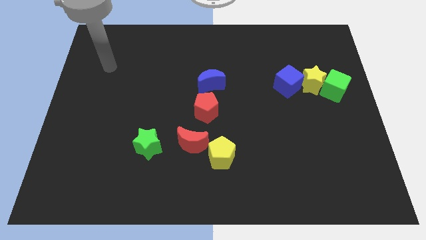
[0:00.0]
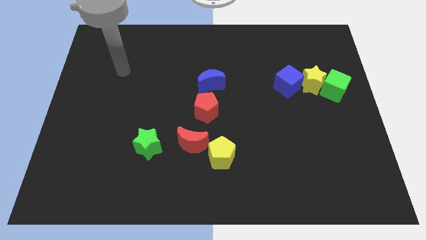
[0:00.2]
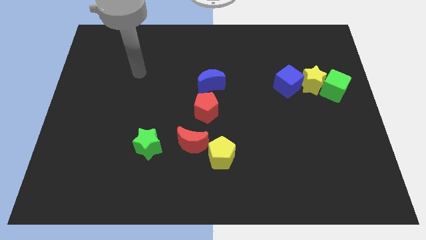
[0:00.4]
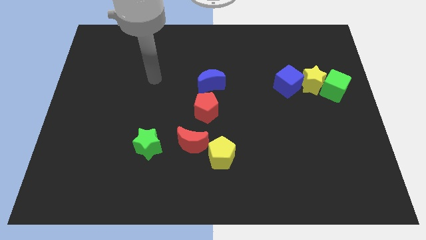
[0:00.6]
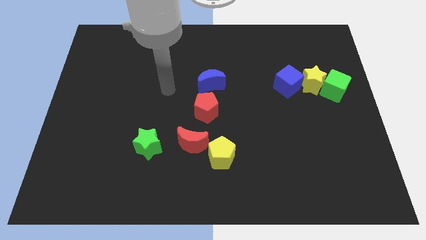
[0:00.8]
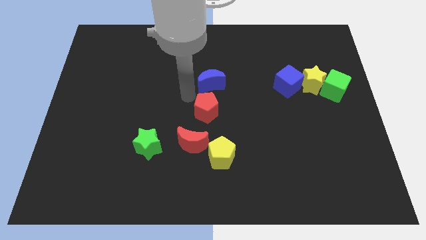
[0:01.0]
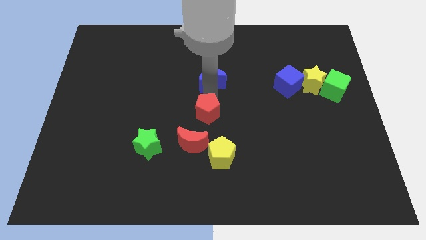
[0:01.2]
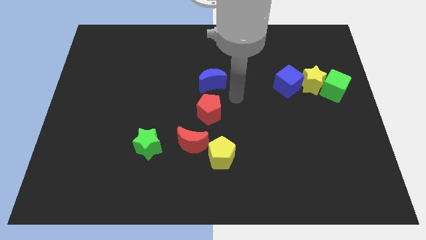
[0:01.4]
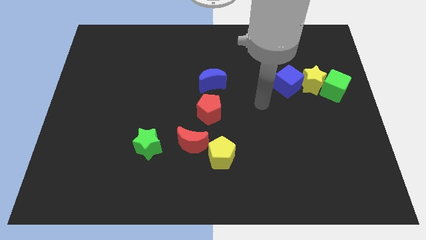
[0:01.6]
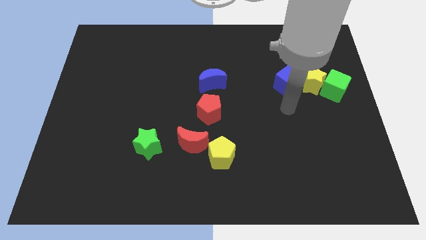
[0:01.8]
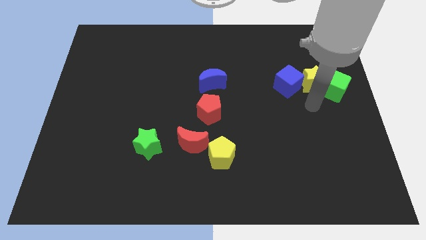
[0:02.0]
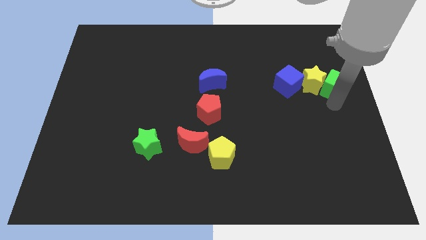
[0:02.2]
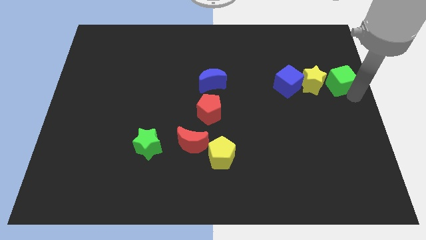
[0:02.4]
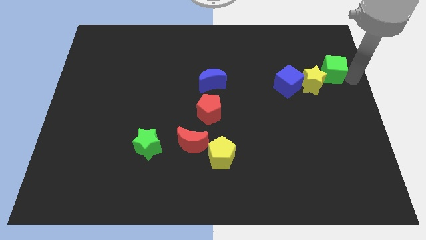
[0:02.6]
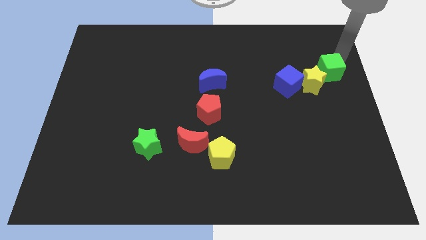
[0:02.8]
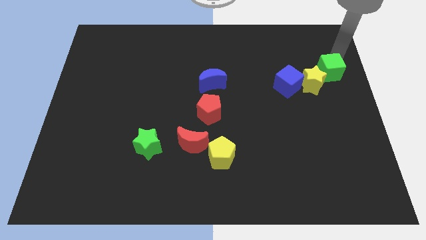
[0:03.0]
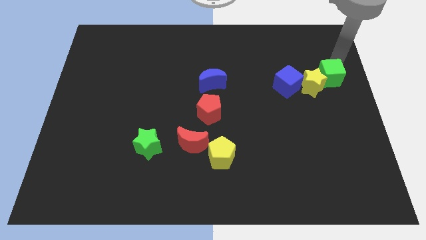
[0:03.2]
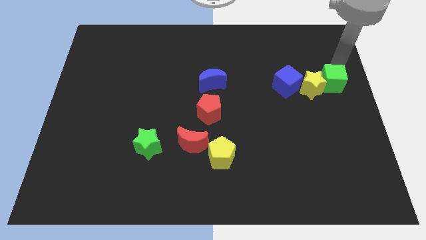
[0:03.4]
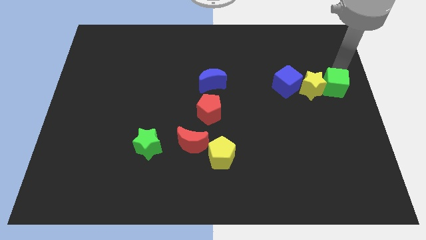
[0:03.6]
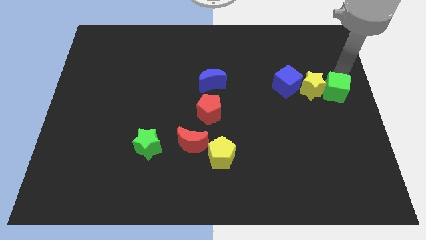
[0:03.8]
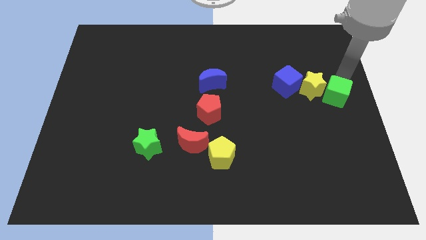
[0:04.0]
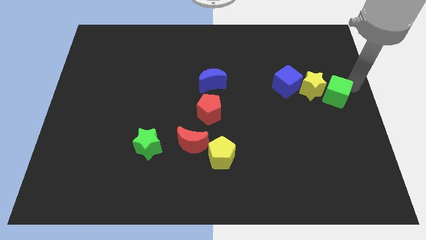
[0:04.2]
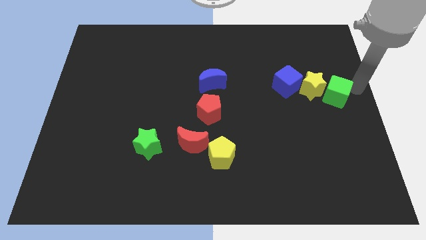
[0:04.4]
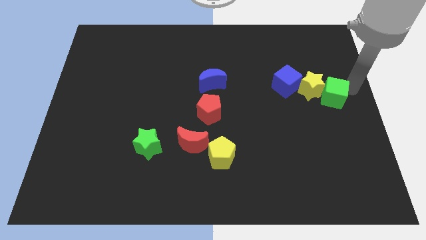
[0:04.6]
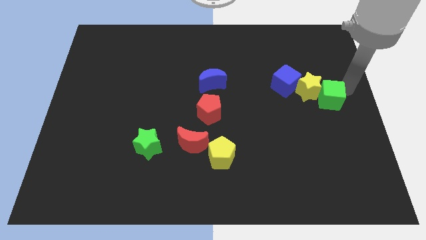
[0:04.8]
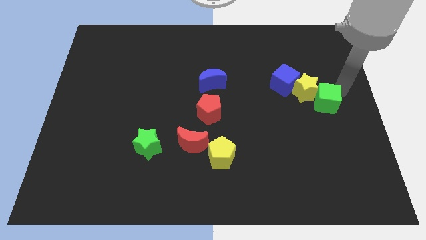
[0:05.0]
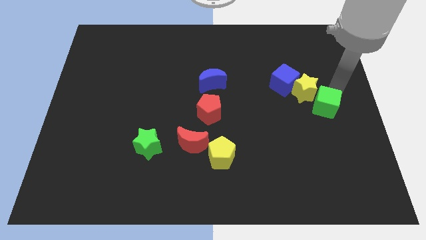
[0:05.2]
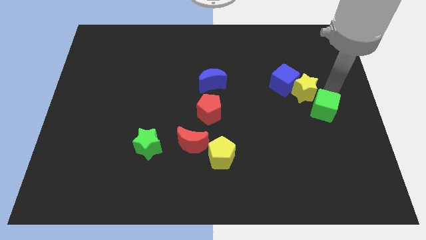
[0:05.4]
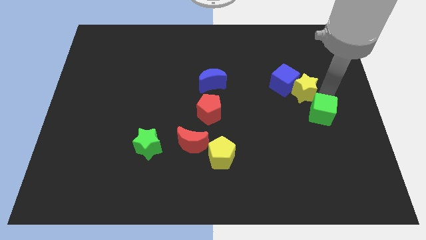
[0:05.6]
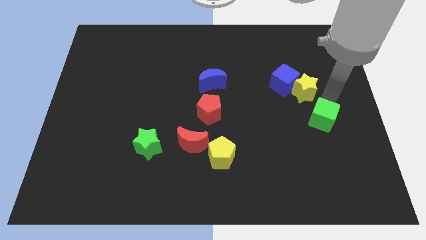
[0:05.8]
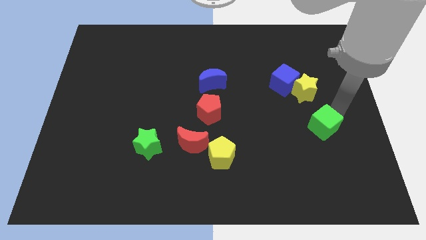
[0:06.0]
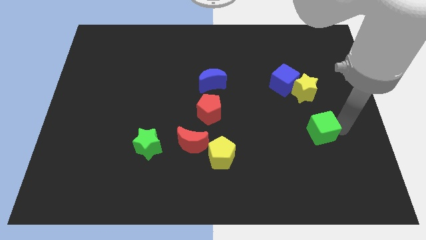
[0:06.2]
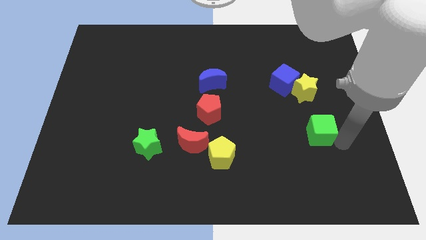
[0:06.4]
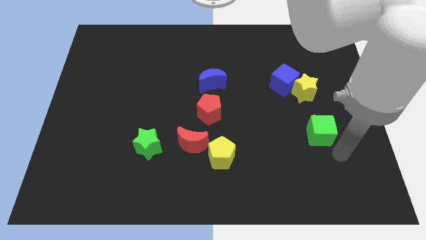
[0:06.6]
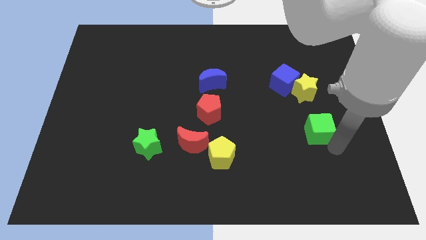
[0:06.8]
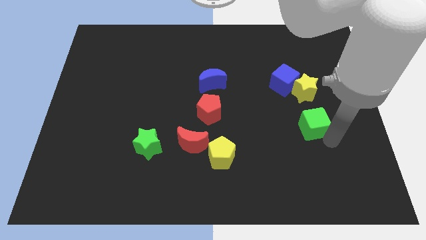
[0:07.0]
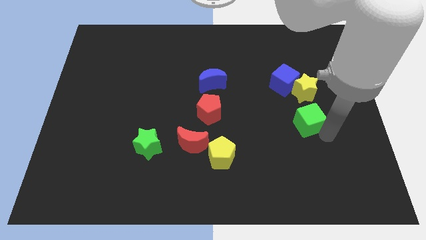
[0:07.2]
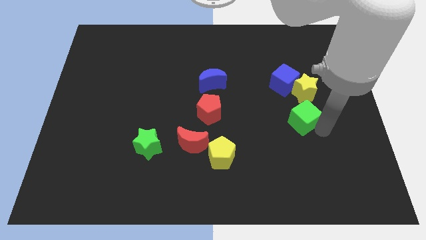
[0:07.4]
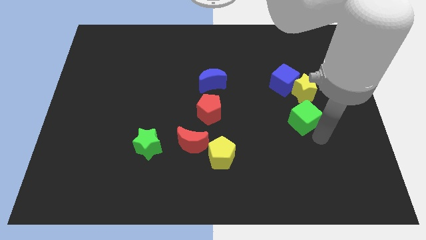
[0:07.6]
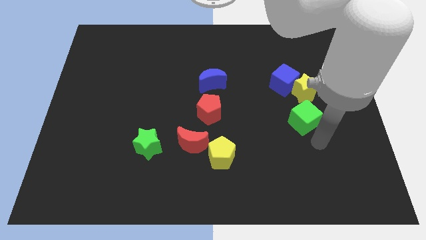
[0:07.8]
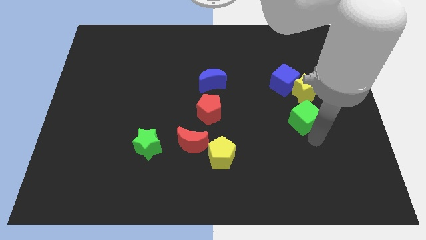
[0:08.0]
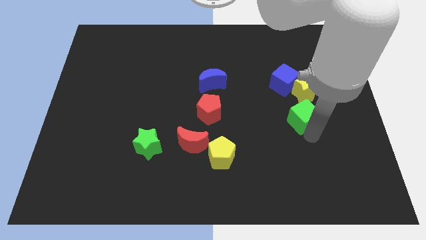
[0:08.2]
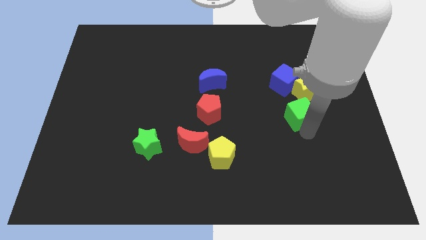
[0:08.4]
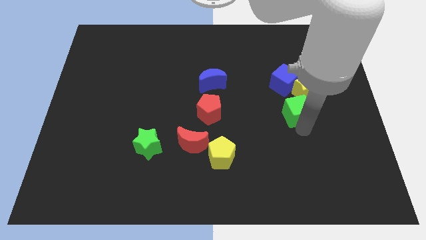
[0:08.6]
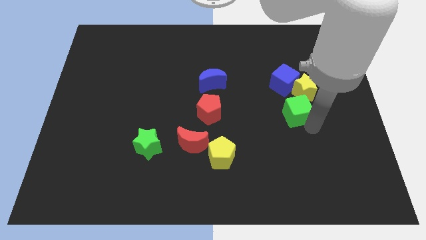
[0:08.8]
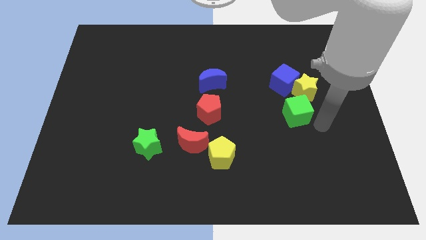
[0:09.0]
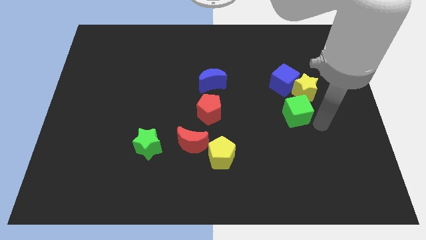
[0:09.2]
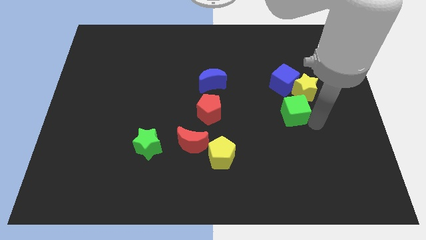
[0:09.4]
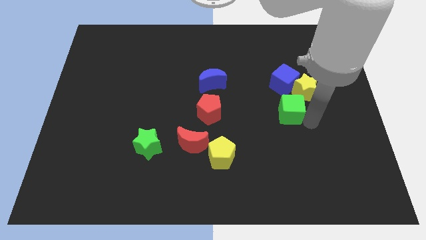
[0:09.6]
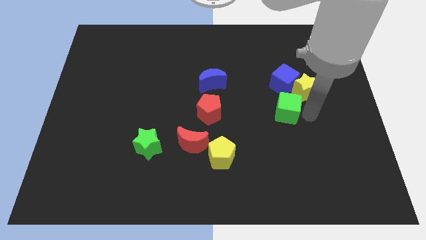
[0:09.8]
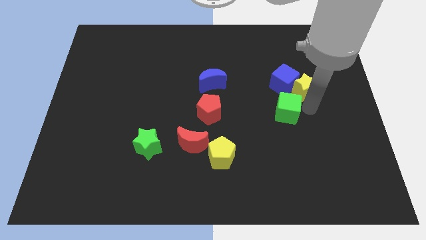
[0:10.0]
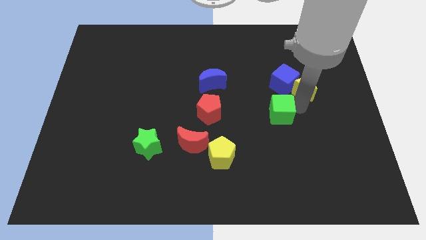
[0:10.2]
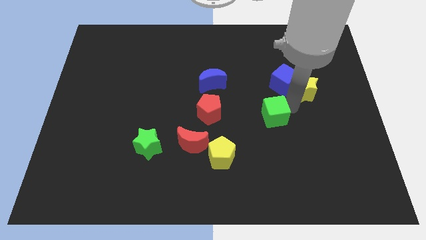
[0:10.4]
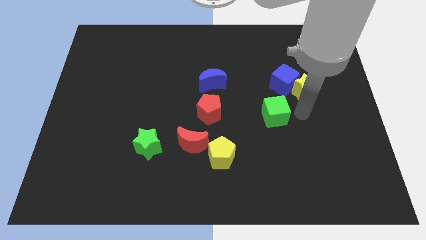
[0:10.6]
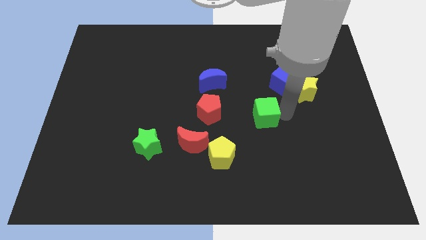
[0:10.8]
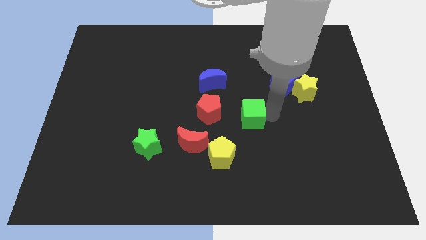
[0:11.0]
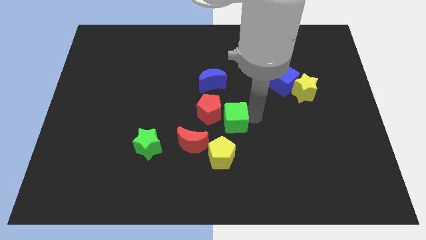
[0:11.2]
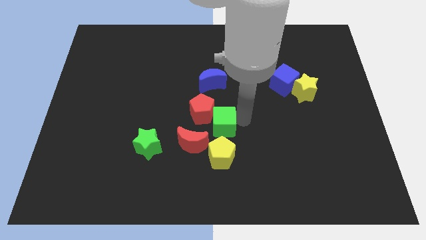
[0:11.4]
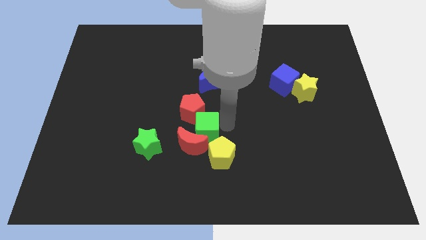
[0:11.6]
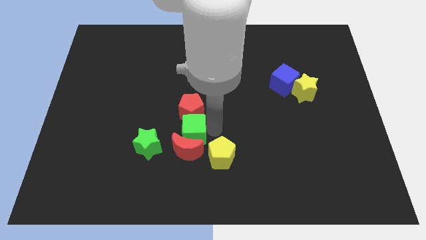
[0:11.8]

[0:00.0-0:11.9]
move the green cube to the top right side of the green star

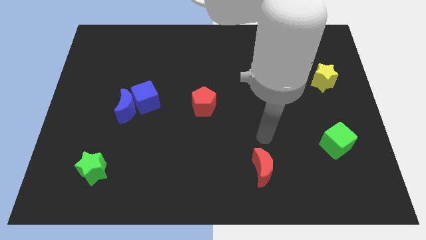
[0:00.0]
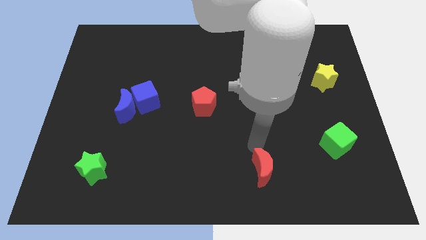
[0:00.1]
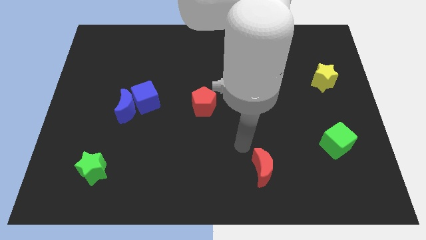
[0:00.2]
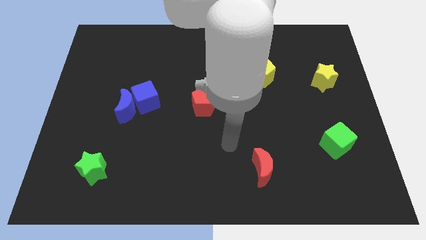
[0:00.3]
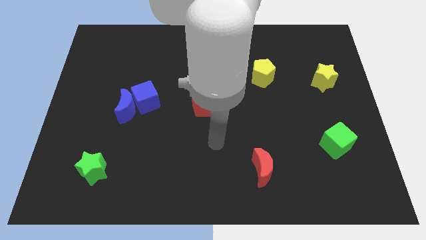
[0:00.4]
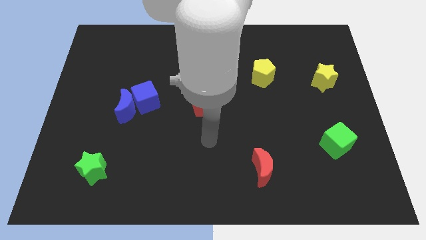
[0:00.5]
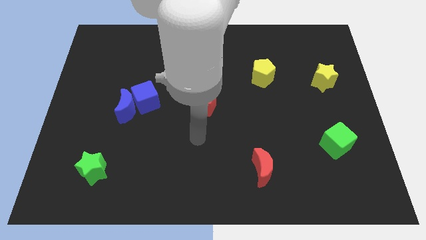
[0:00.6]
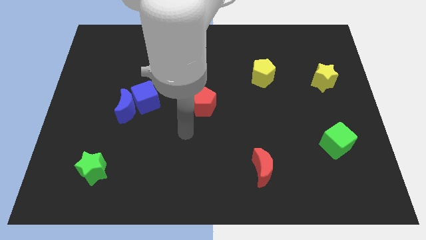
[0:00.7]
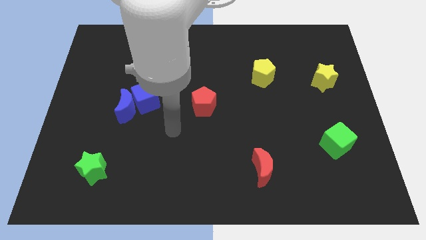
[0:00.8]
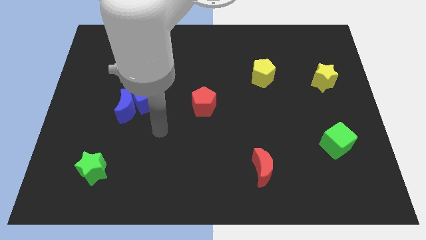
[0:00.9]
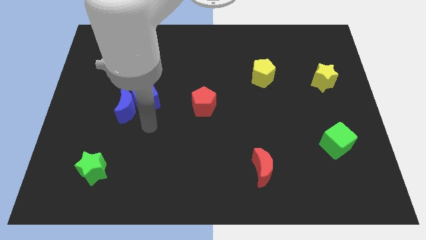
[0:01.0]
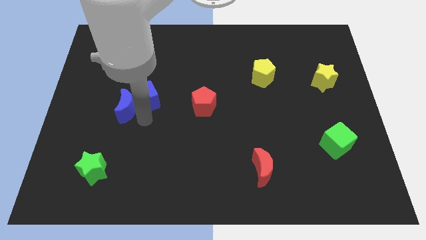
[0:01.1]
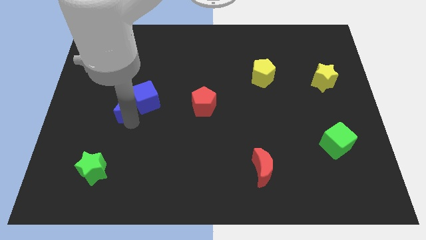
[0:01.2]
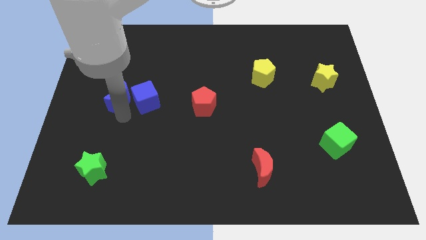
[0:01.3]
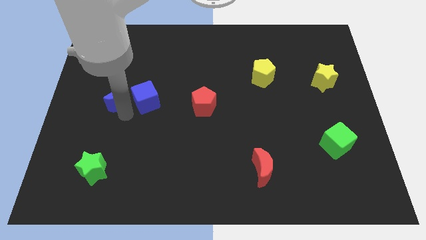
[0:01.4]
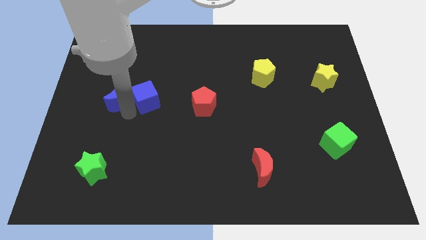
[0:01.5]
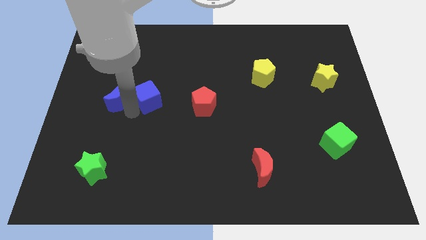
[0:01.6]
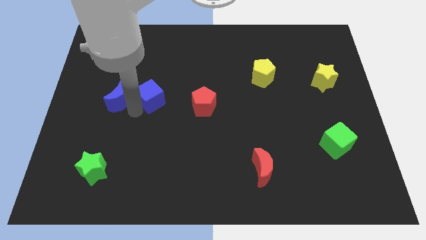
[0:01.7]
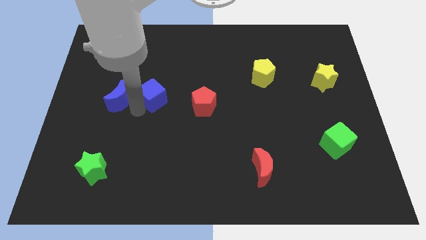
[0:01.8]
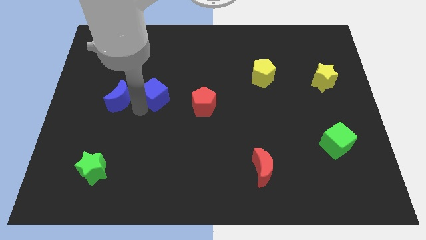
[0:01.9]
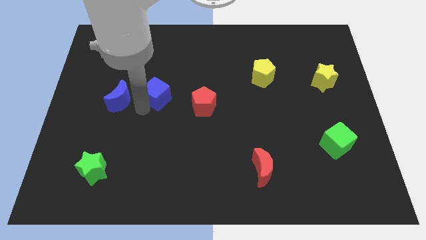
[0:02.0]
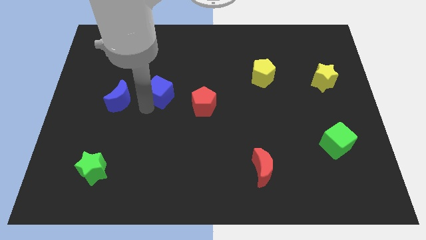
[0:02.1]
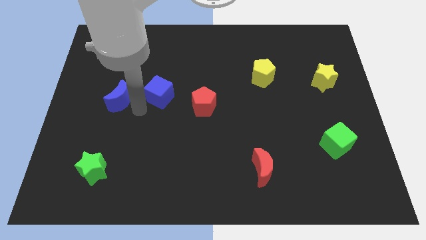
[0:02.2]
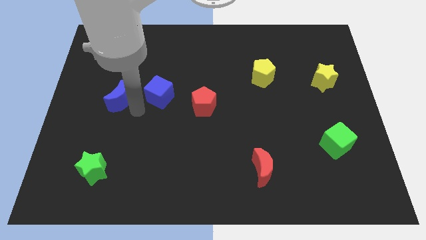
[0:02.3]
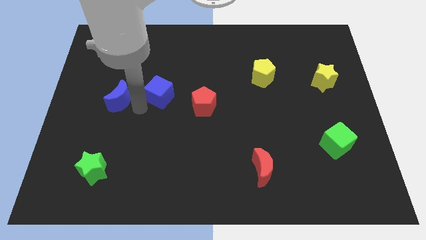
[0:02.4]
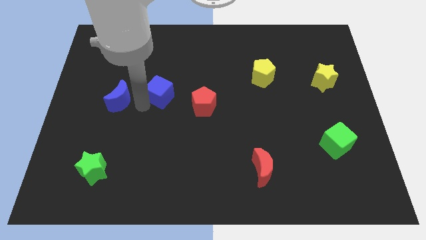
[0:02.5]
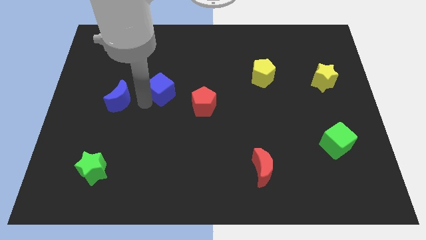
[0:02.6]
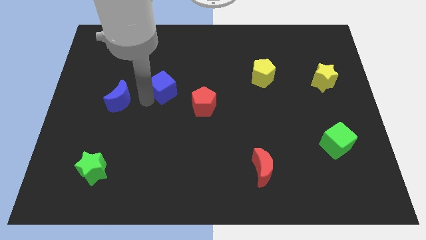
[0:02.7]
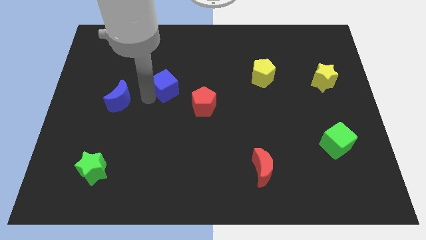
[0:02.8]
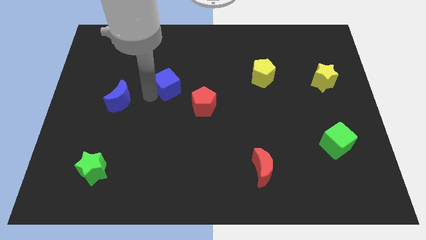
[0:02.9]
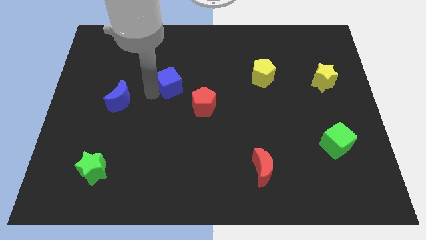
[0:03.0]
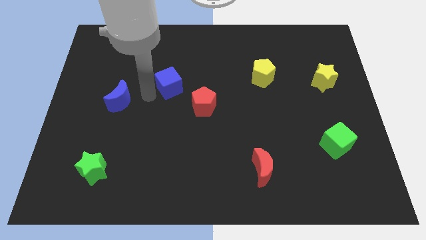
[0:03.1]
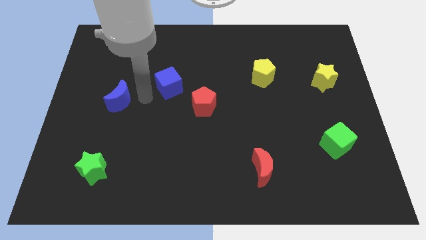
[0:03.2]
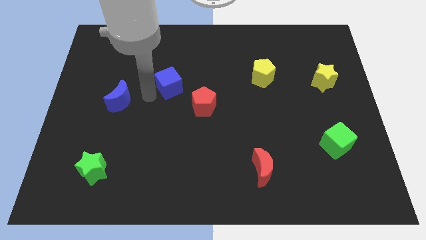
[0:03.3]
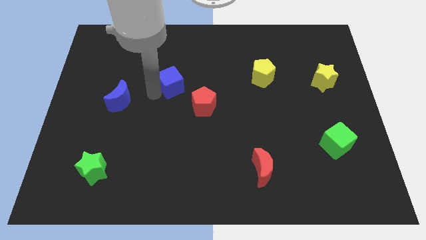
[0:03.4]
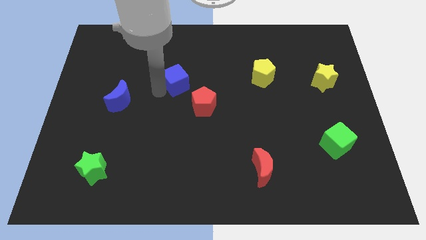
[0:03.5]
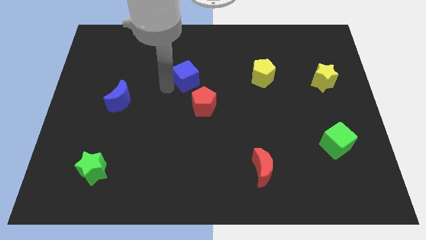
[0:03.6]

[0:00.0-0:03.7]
slide the blue cube to the top of the red pentagon
